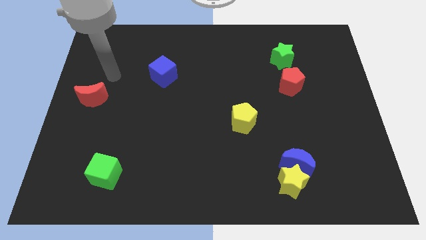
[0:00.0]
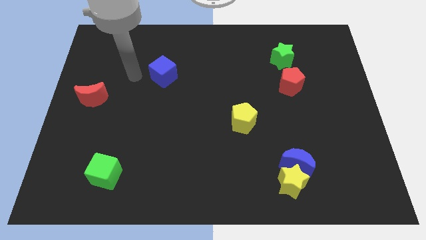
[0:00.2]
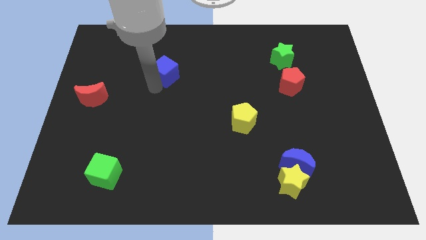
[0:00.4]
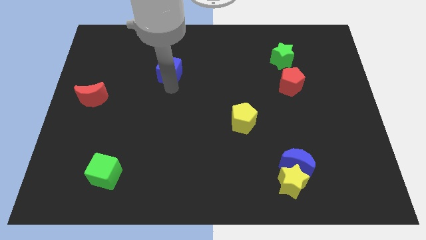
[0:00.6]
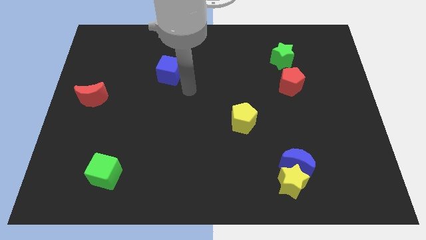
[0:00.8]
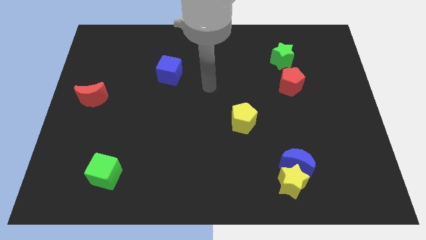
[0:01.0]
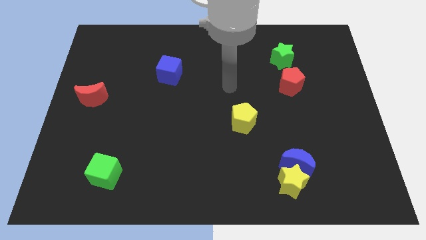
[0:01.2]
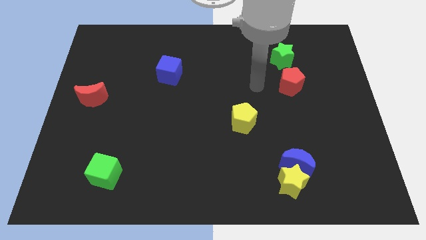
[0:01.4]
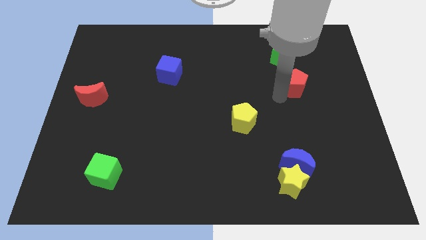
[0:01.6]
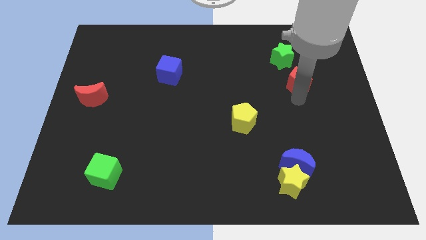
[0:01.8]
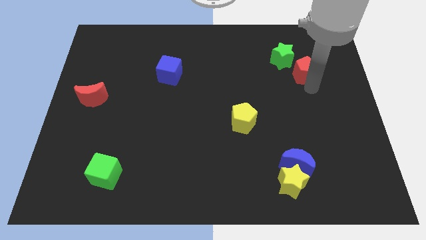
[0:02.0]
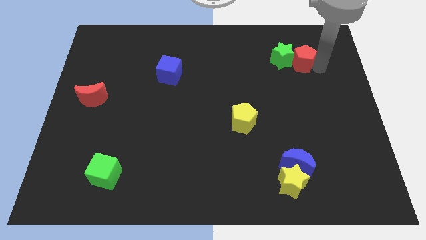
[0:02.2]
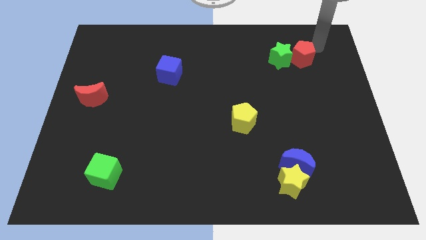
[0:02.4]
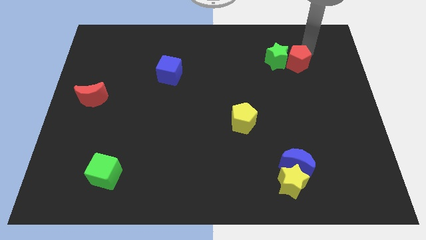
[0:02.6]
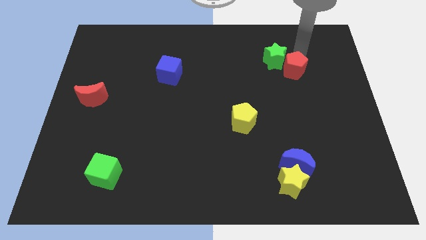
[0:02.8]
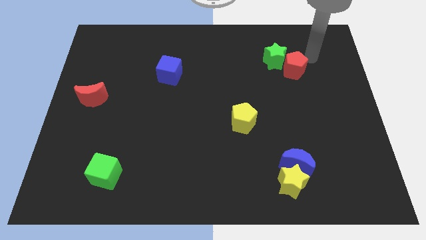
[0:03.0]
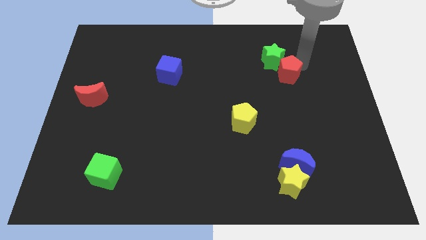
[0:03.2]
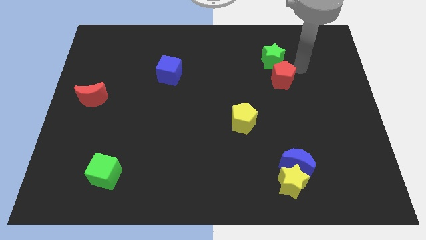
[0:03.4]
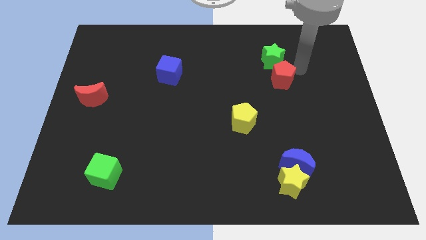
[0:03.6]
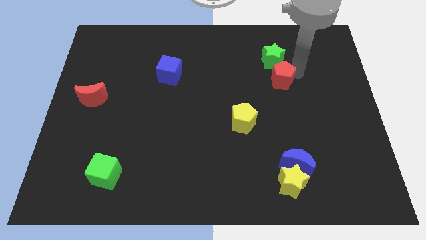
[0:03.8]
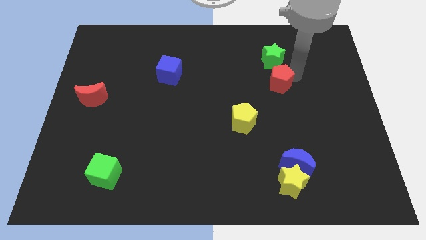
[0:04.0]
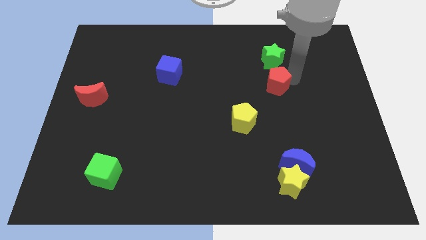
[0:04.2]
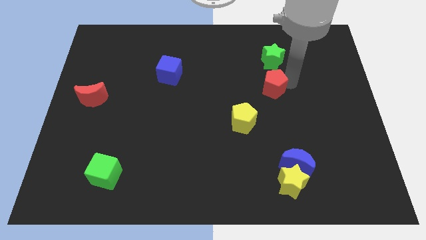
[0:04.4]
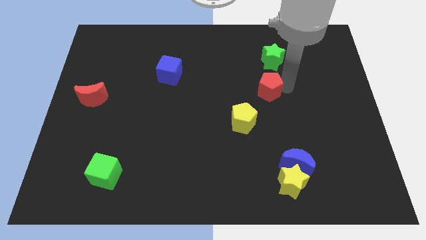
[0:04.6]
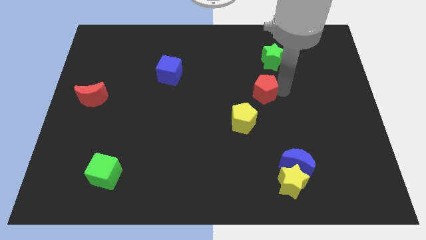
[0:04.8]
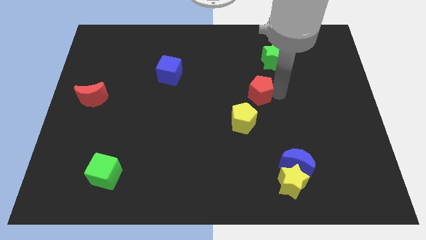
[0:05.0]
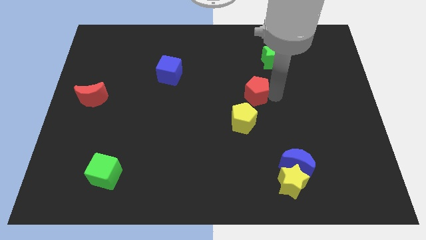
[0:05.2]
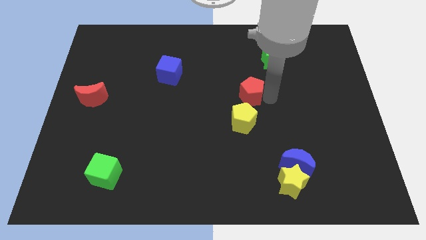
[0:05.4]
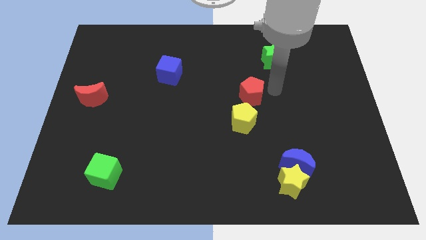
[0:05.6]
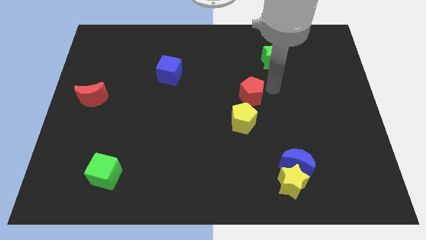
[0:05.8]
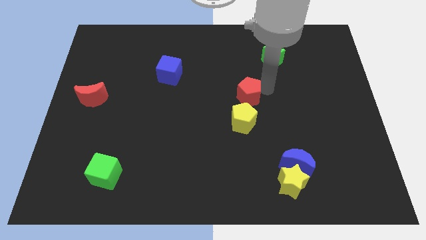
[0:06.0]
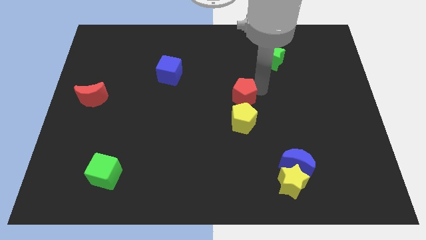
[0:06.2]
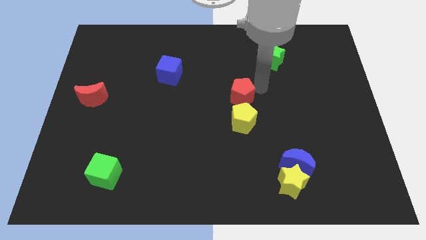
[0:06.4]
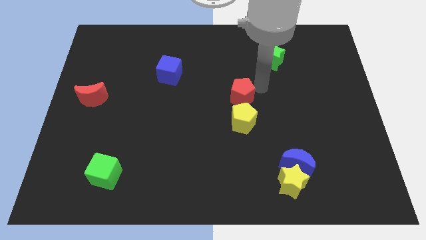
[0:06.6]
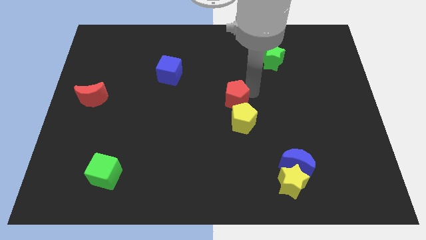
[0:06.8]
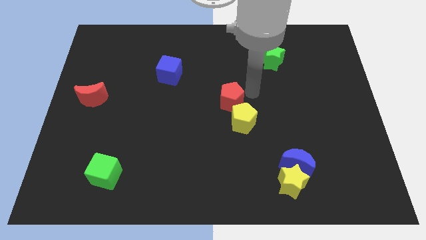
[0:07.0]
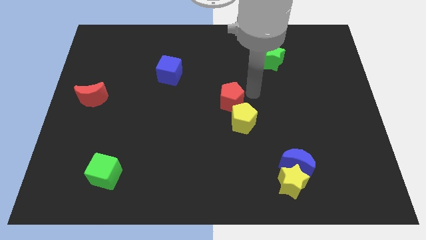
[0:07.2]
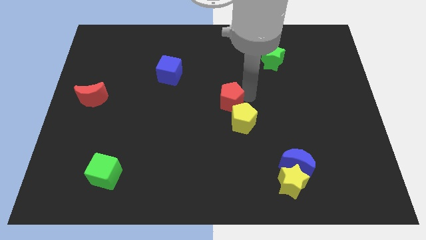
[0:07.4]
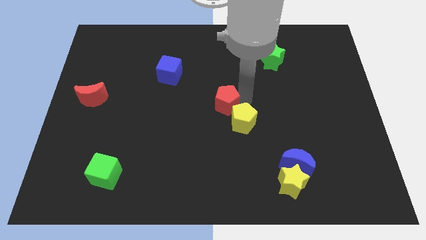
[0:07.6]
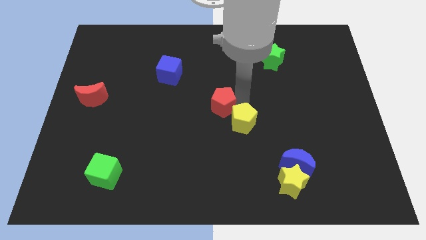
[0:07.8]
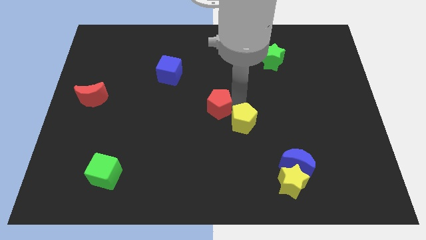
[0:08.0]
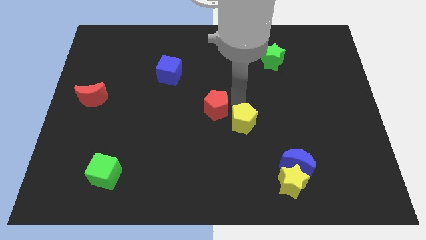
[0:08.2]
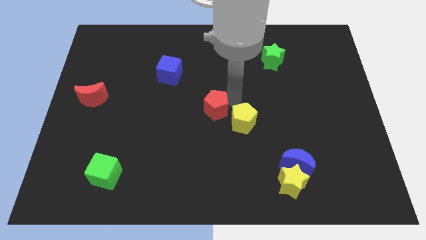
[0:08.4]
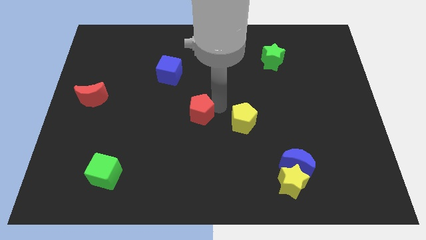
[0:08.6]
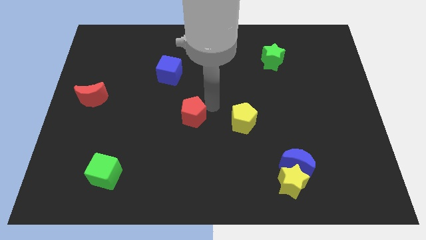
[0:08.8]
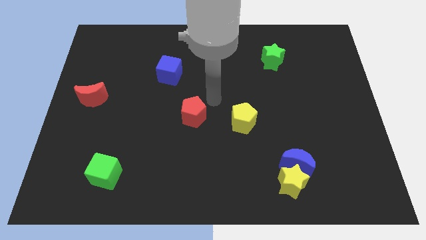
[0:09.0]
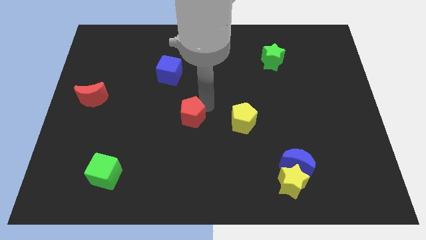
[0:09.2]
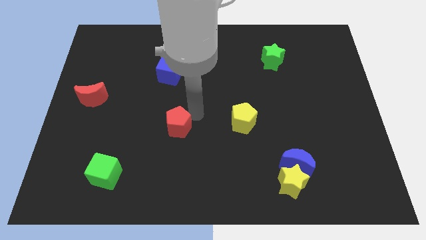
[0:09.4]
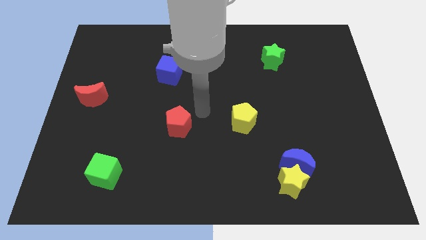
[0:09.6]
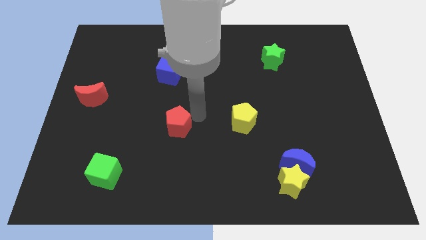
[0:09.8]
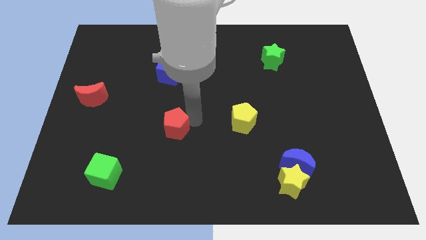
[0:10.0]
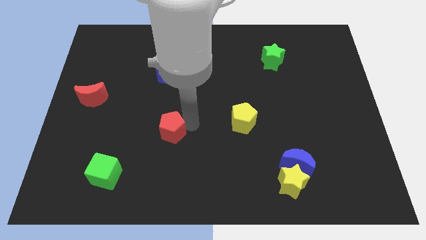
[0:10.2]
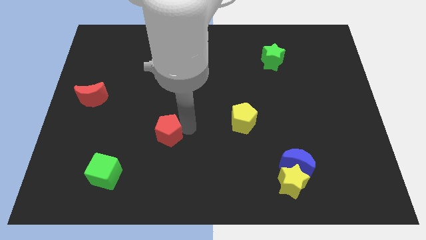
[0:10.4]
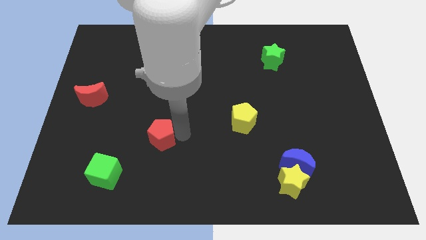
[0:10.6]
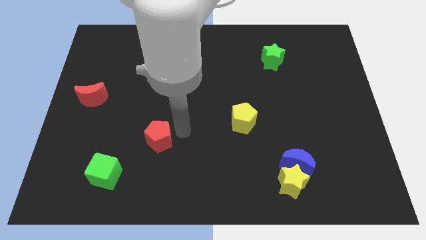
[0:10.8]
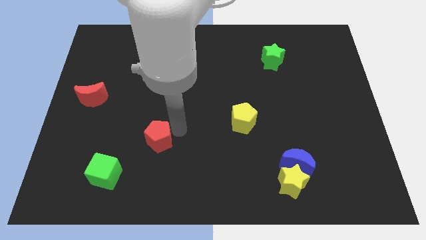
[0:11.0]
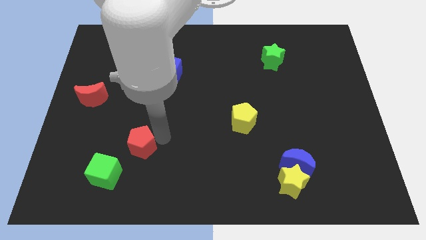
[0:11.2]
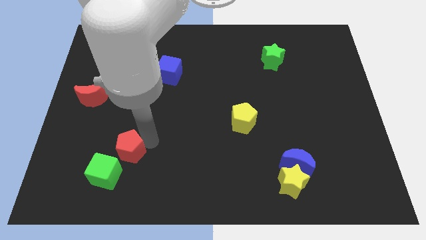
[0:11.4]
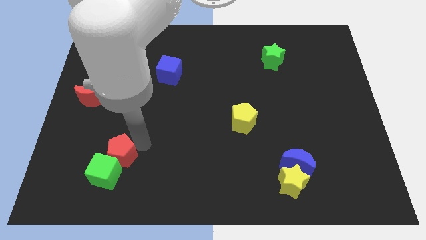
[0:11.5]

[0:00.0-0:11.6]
push the red pentagon to the green cube
